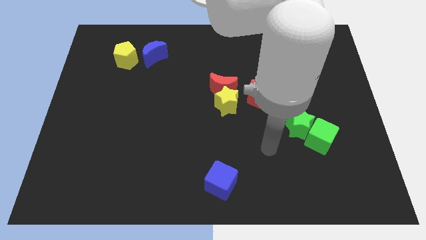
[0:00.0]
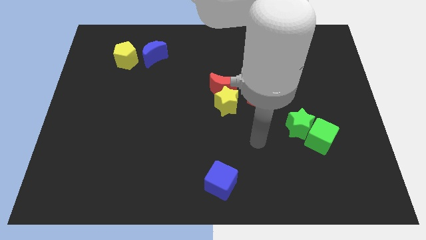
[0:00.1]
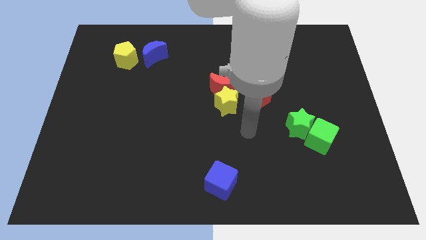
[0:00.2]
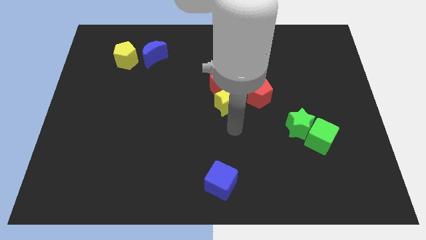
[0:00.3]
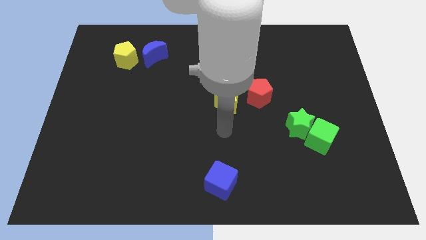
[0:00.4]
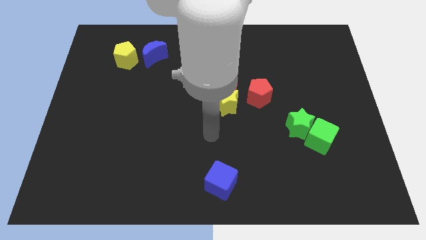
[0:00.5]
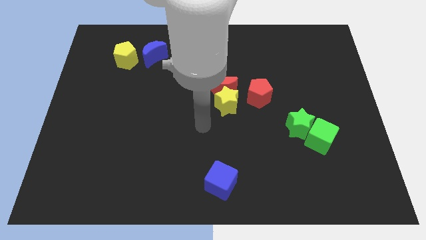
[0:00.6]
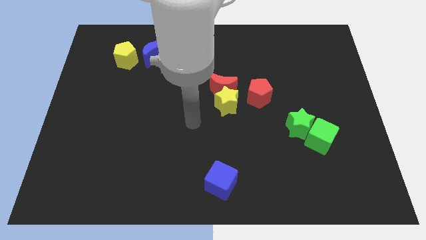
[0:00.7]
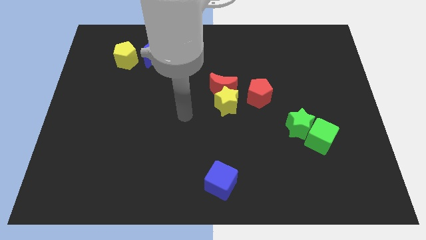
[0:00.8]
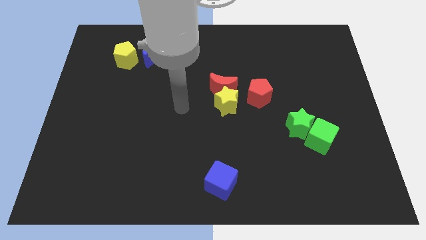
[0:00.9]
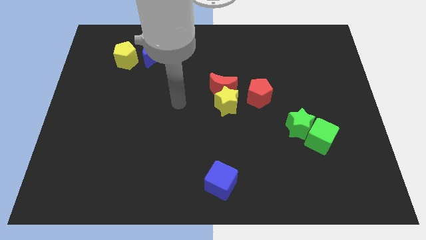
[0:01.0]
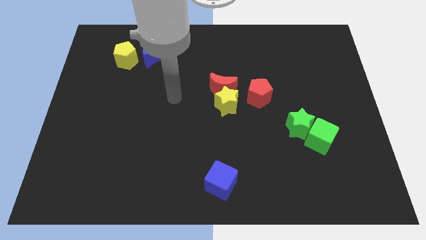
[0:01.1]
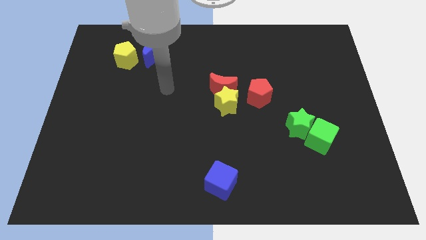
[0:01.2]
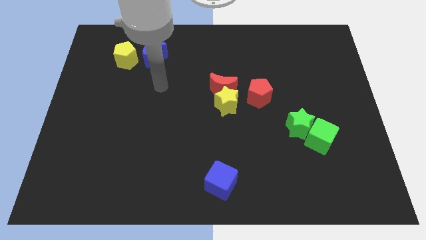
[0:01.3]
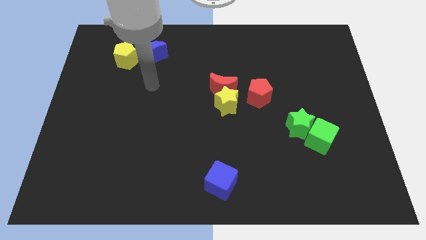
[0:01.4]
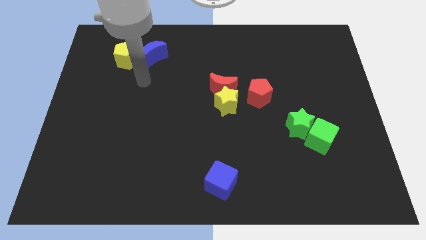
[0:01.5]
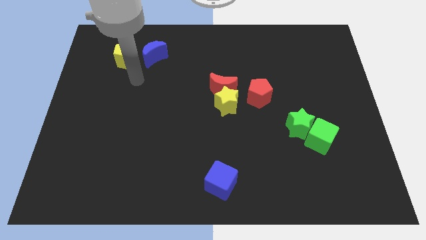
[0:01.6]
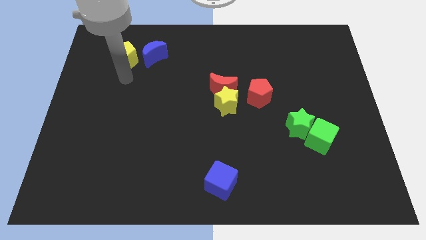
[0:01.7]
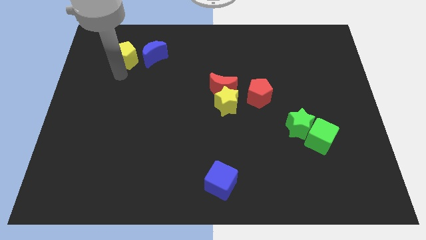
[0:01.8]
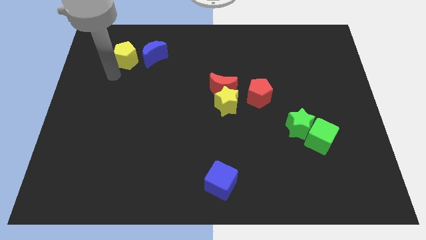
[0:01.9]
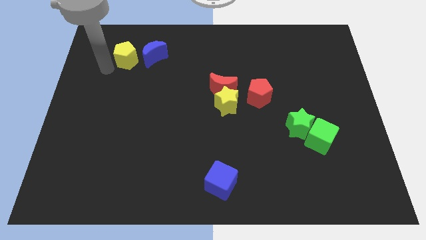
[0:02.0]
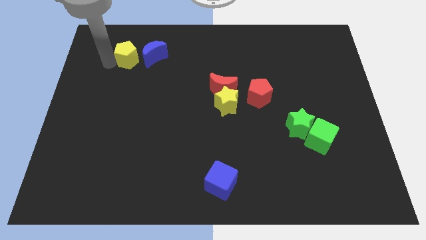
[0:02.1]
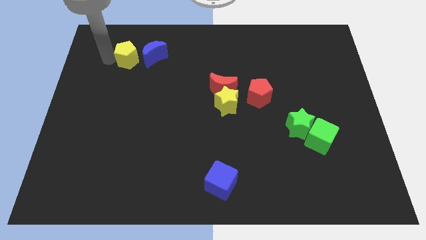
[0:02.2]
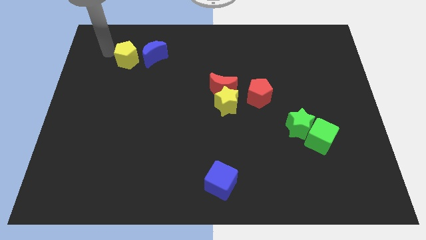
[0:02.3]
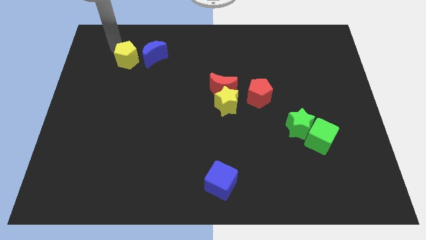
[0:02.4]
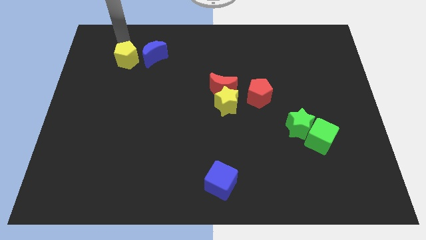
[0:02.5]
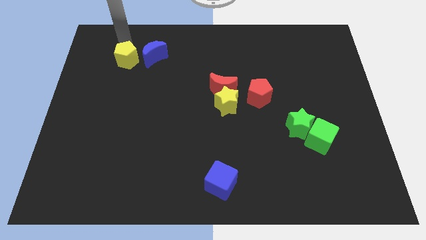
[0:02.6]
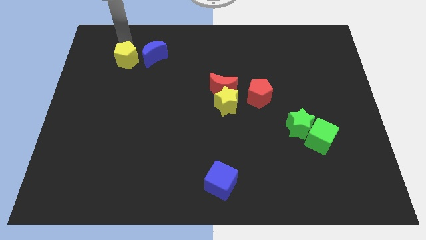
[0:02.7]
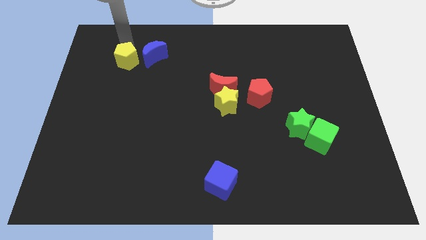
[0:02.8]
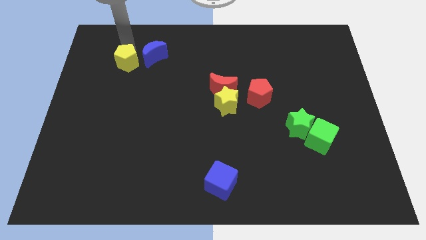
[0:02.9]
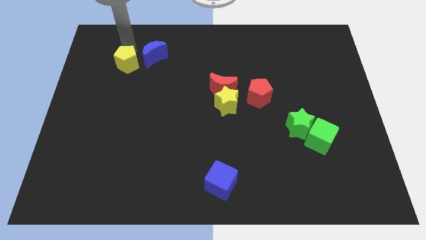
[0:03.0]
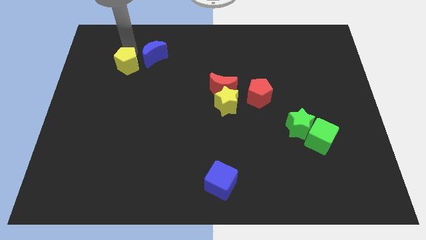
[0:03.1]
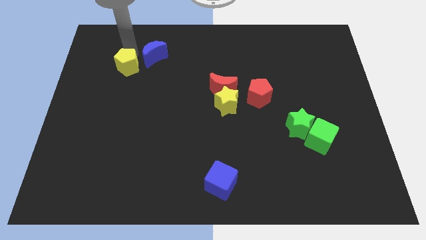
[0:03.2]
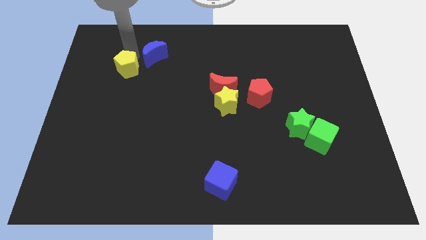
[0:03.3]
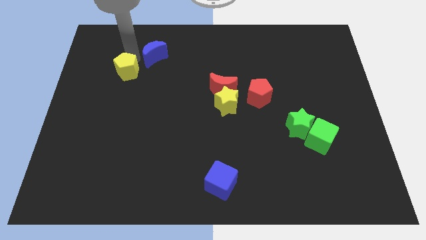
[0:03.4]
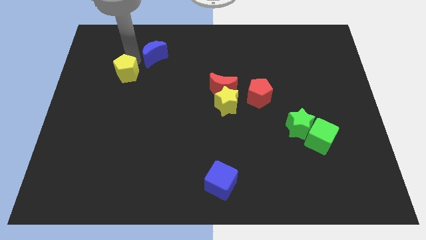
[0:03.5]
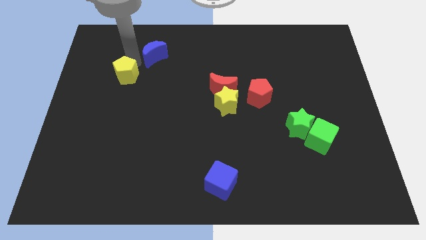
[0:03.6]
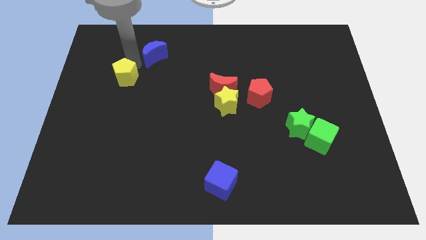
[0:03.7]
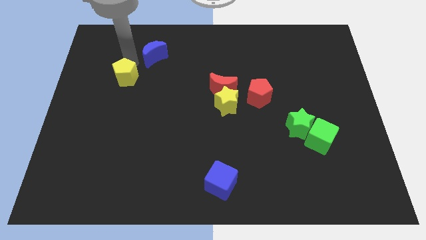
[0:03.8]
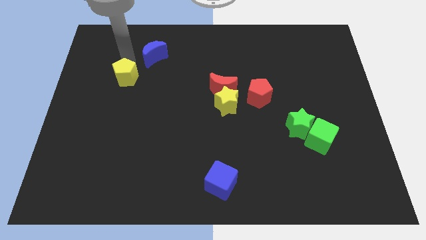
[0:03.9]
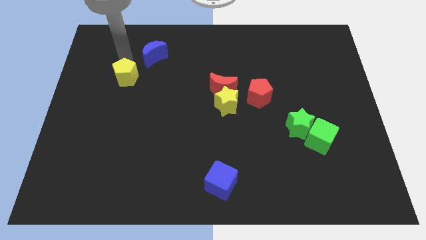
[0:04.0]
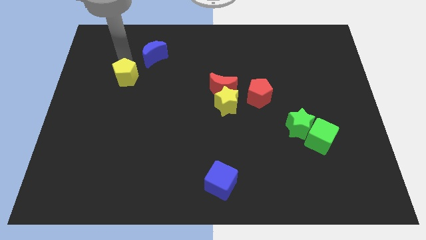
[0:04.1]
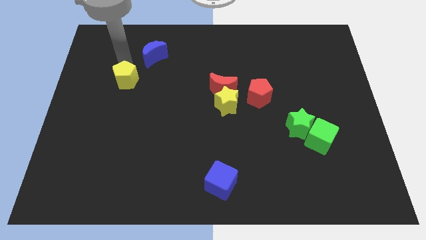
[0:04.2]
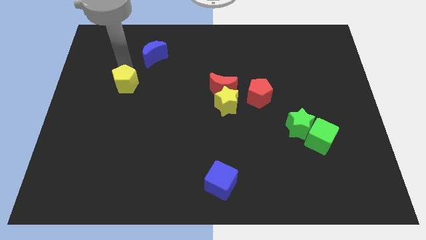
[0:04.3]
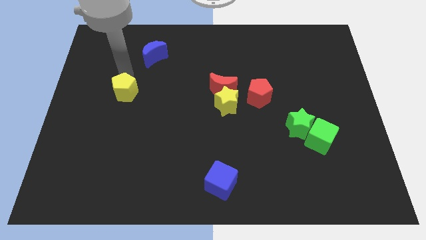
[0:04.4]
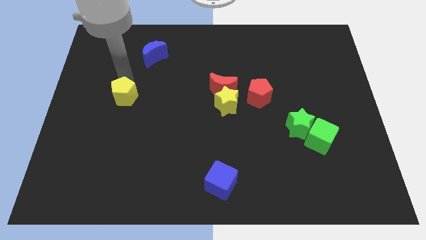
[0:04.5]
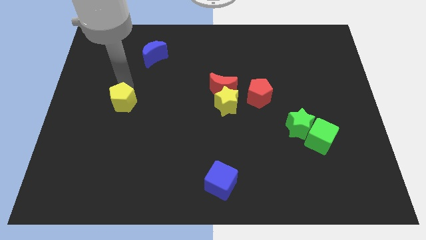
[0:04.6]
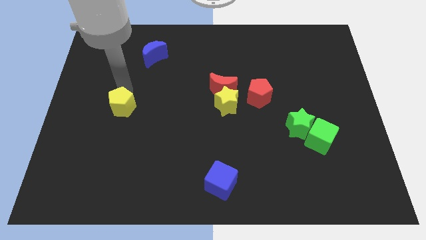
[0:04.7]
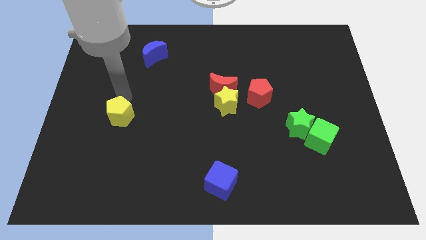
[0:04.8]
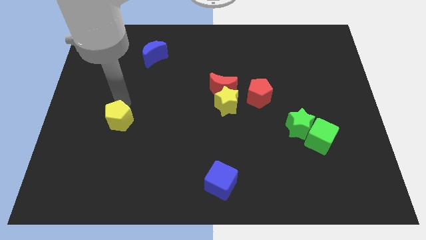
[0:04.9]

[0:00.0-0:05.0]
move the yellow pentagon down

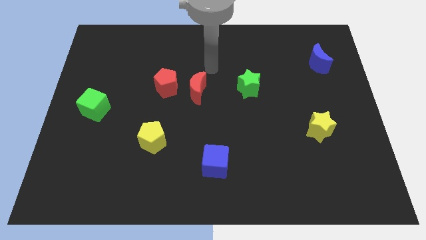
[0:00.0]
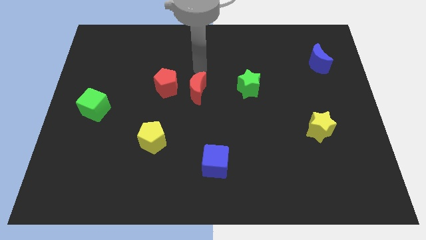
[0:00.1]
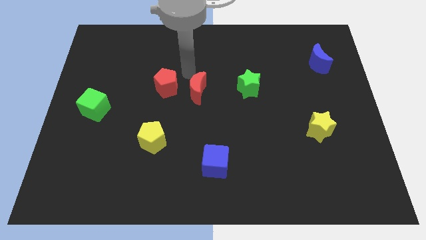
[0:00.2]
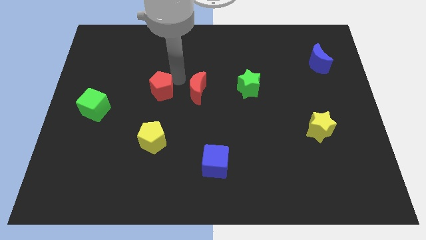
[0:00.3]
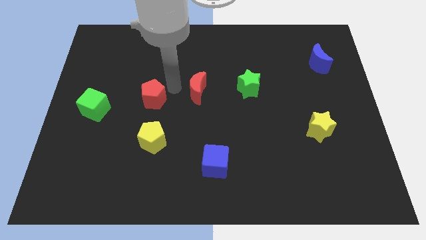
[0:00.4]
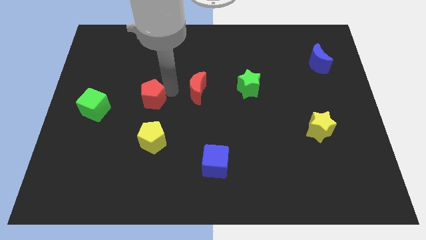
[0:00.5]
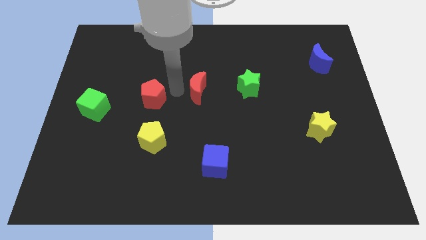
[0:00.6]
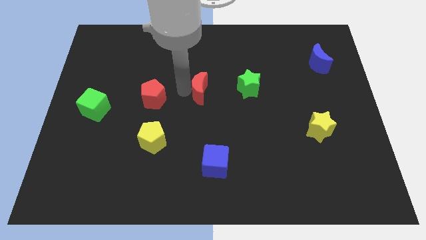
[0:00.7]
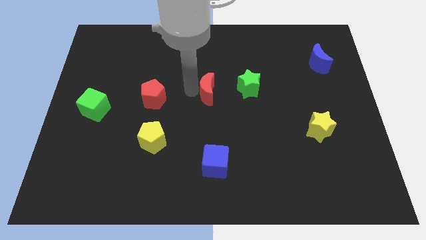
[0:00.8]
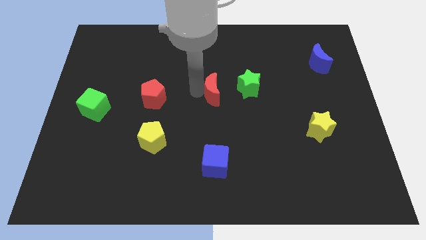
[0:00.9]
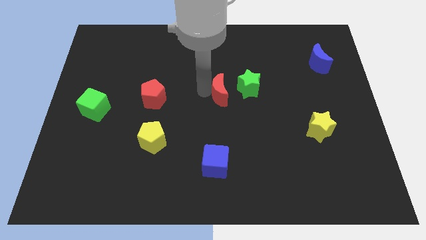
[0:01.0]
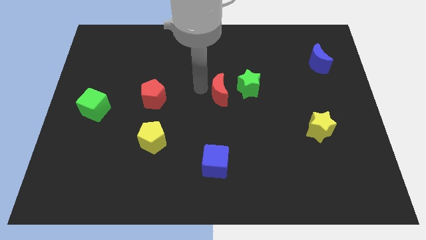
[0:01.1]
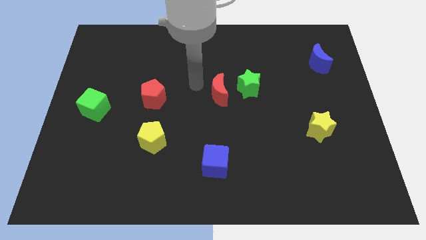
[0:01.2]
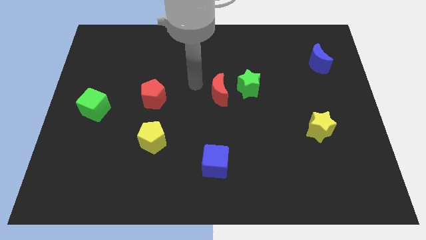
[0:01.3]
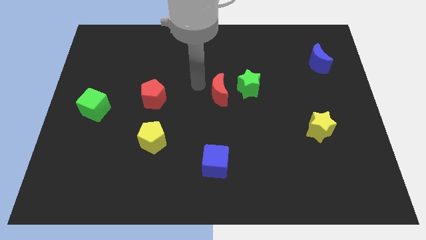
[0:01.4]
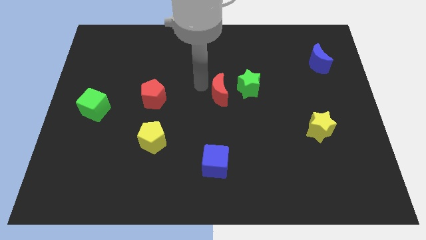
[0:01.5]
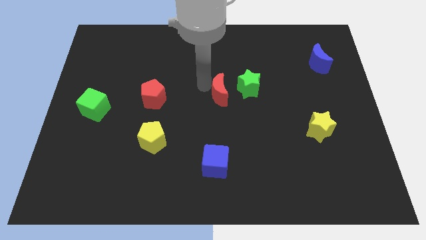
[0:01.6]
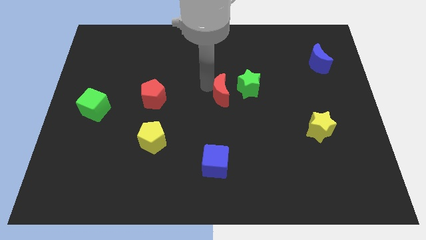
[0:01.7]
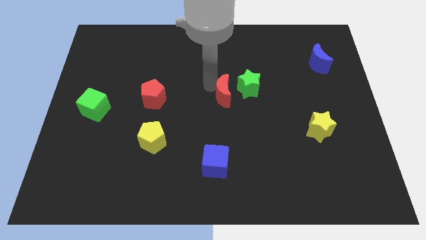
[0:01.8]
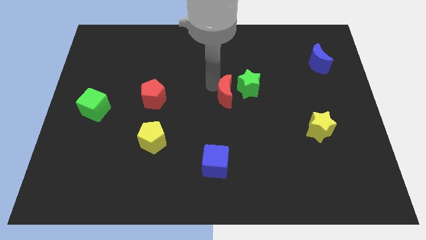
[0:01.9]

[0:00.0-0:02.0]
slide the red moon to the right a little

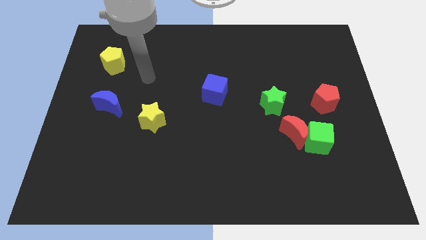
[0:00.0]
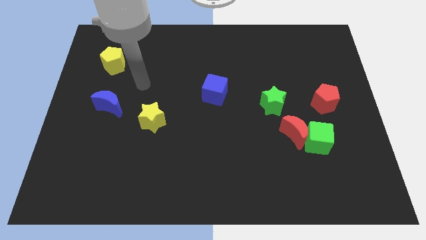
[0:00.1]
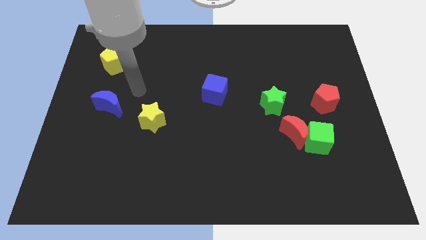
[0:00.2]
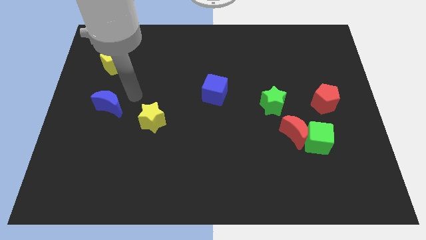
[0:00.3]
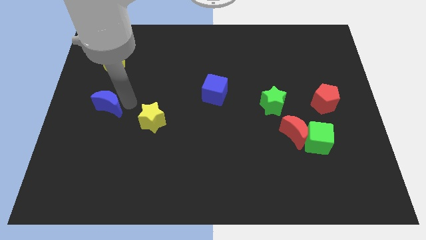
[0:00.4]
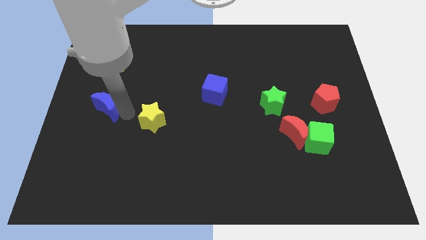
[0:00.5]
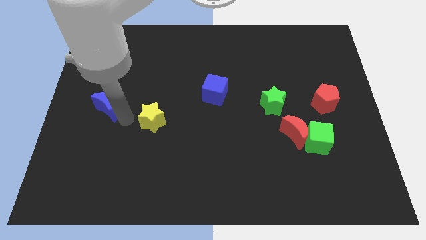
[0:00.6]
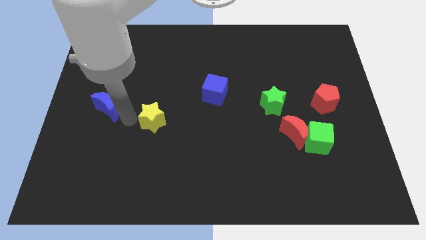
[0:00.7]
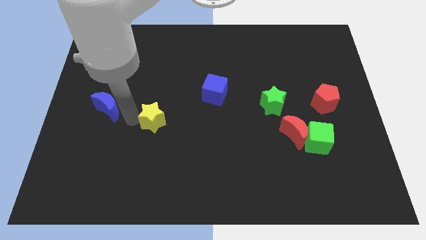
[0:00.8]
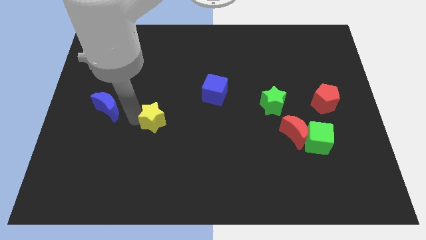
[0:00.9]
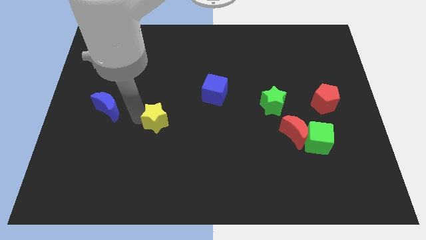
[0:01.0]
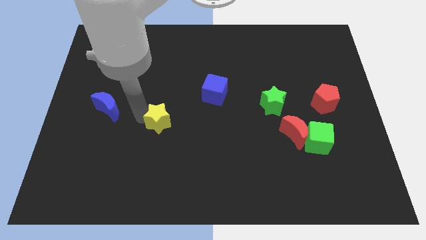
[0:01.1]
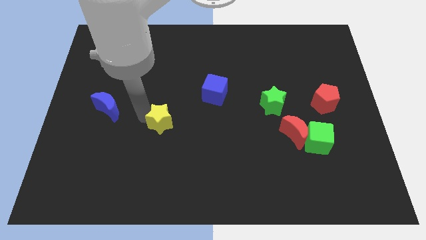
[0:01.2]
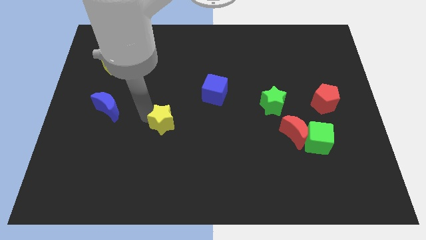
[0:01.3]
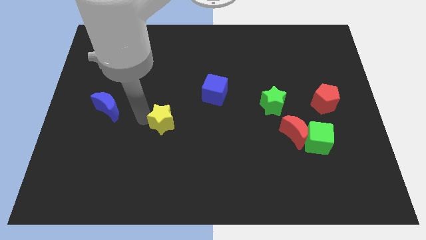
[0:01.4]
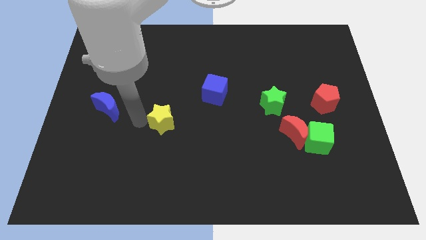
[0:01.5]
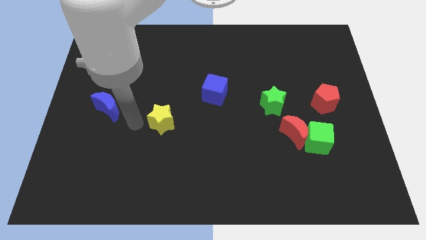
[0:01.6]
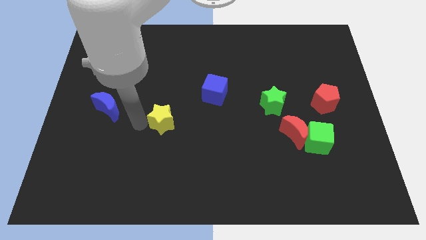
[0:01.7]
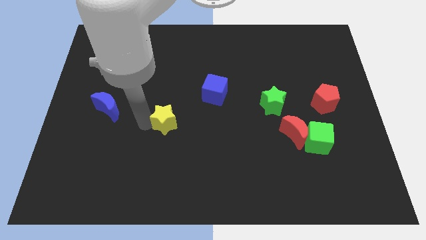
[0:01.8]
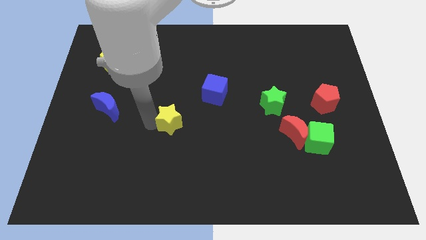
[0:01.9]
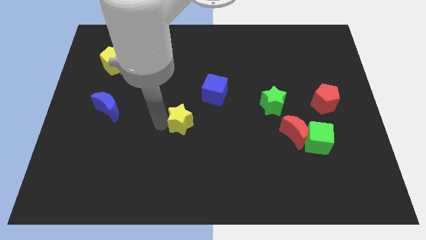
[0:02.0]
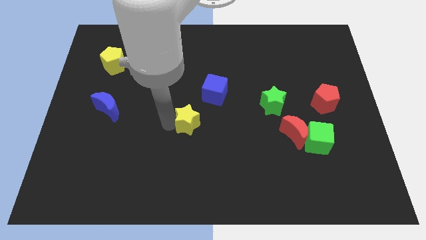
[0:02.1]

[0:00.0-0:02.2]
slightly push the yellow star right
